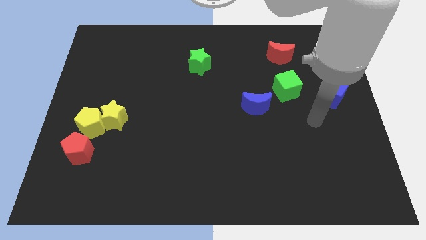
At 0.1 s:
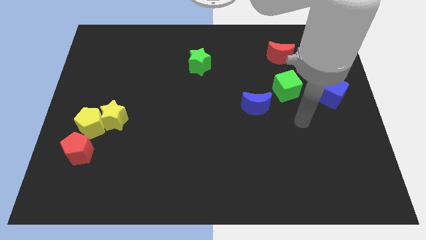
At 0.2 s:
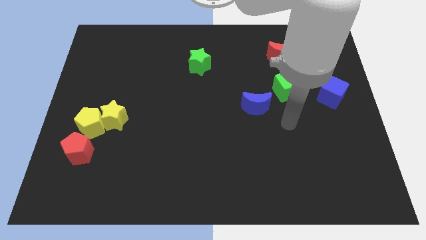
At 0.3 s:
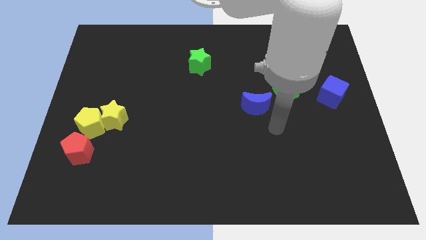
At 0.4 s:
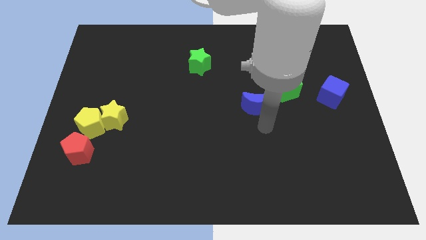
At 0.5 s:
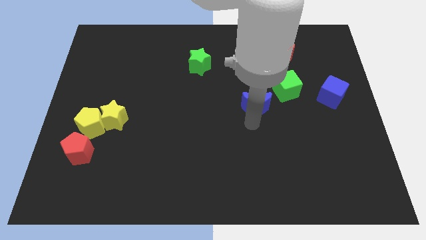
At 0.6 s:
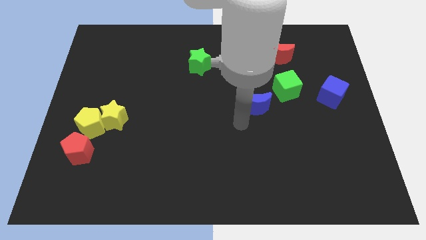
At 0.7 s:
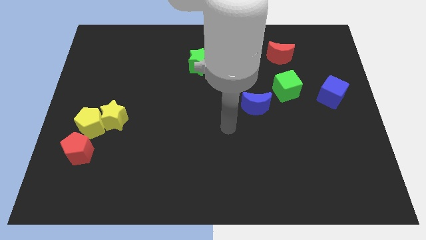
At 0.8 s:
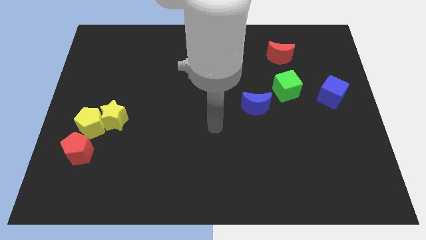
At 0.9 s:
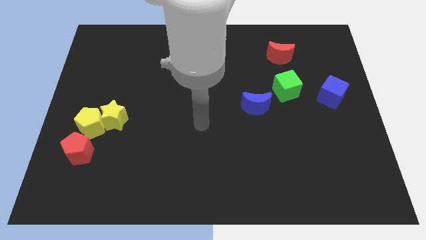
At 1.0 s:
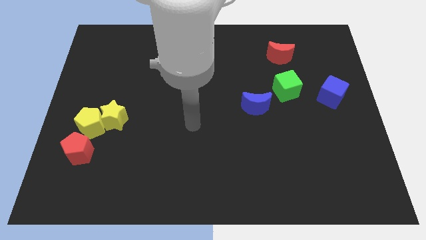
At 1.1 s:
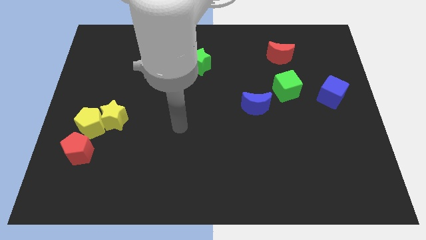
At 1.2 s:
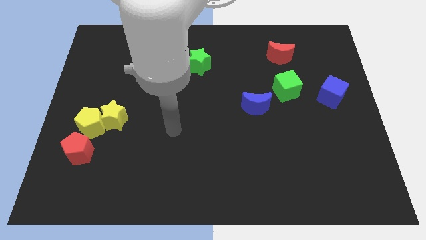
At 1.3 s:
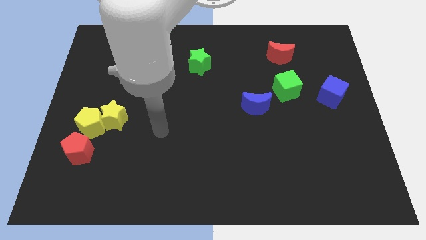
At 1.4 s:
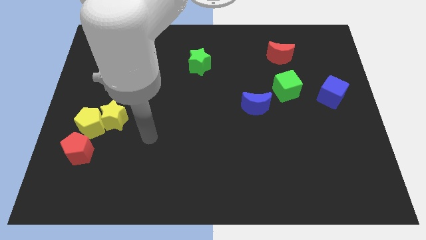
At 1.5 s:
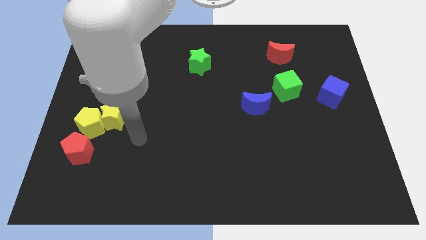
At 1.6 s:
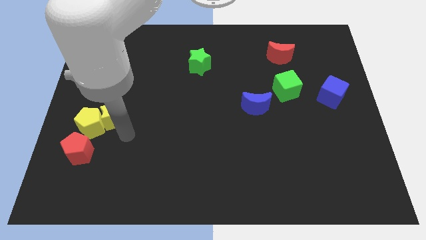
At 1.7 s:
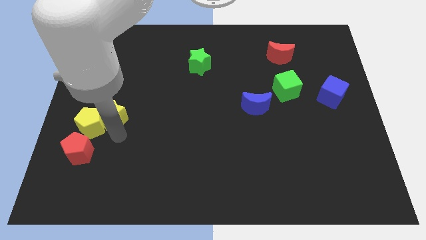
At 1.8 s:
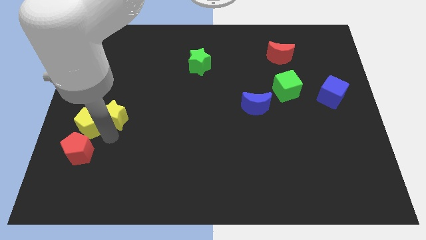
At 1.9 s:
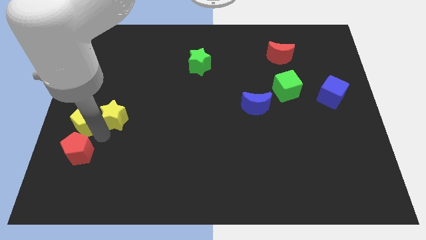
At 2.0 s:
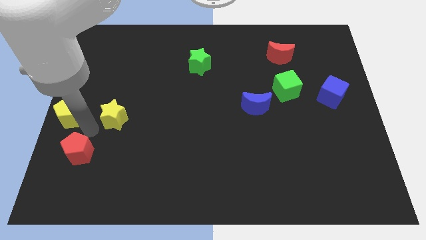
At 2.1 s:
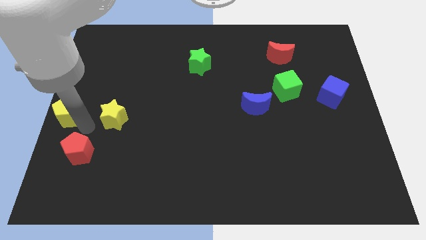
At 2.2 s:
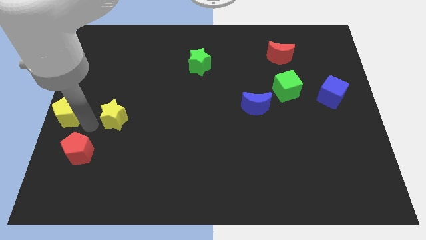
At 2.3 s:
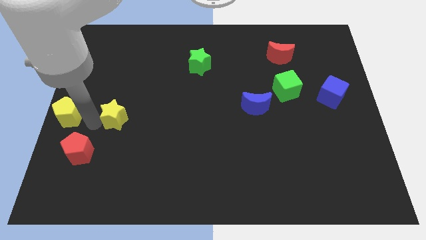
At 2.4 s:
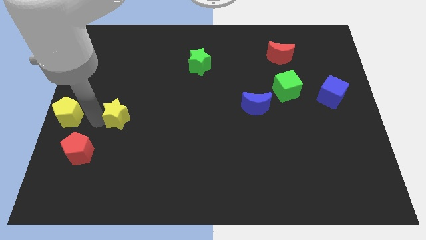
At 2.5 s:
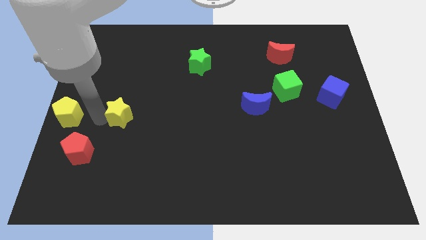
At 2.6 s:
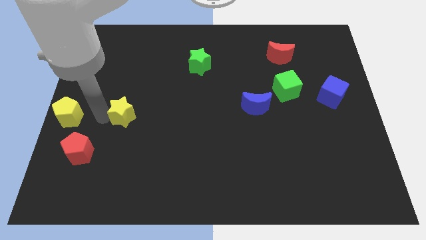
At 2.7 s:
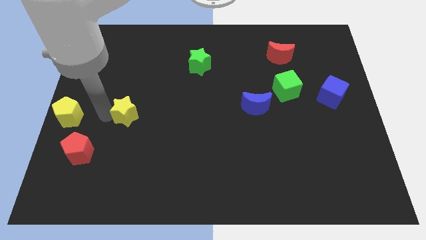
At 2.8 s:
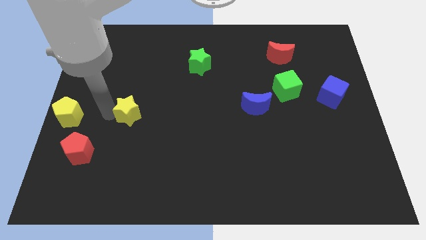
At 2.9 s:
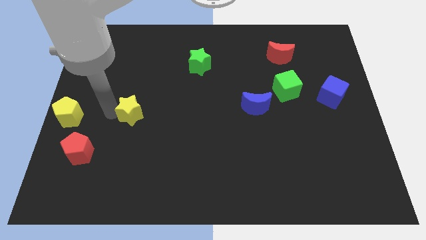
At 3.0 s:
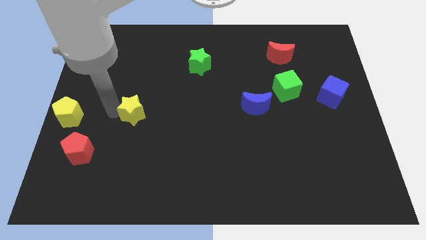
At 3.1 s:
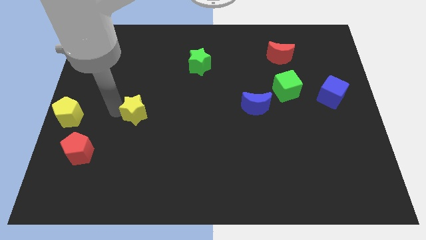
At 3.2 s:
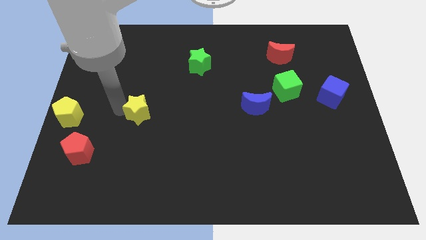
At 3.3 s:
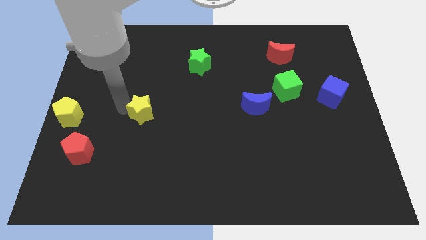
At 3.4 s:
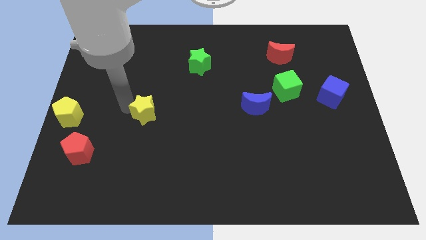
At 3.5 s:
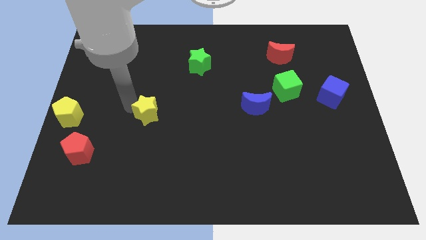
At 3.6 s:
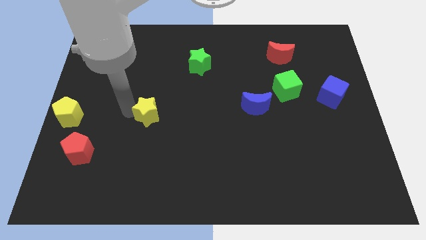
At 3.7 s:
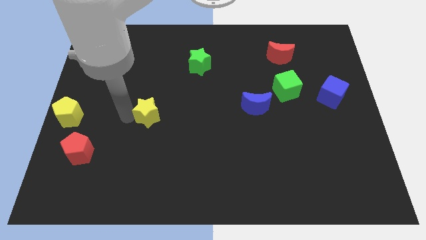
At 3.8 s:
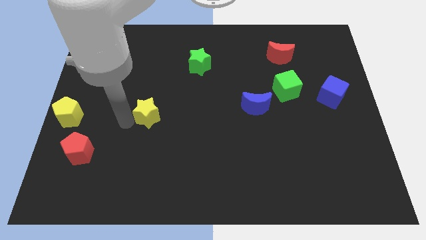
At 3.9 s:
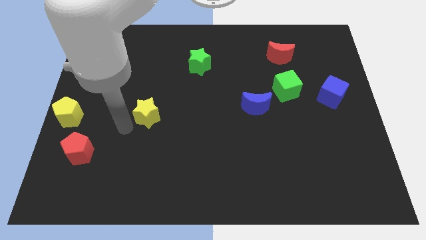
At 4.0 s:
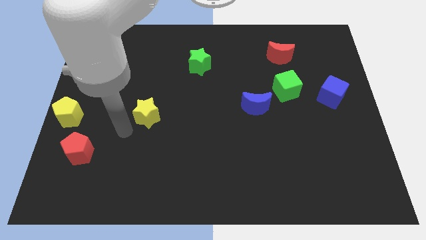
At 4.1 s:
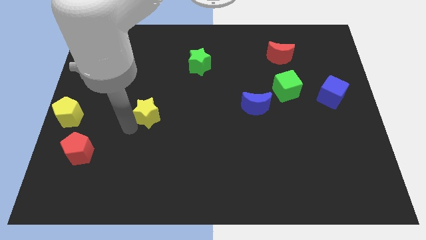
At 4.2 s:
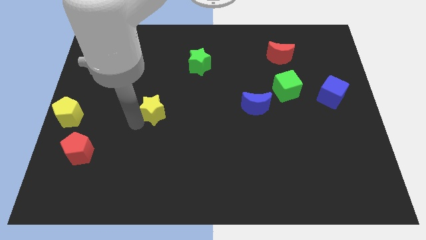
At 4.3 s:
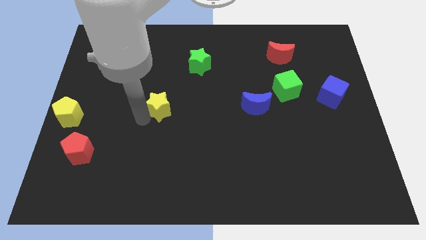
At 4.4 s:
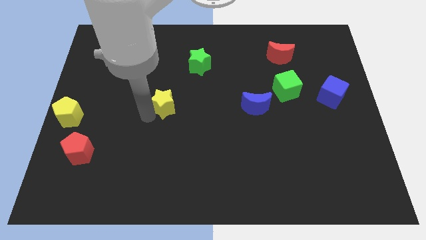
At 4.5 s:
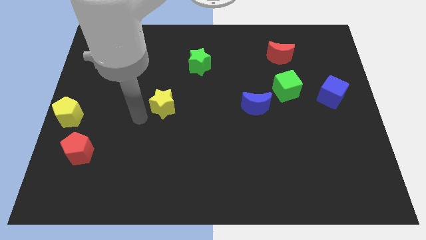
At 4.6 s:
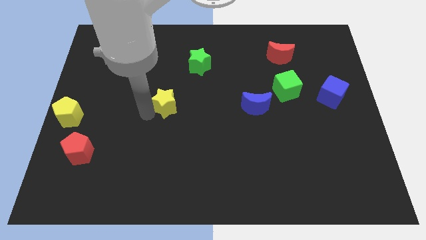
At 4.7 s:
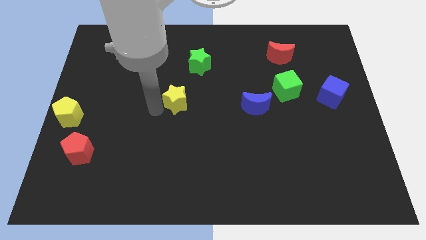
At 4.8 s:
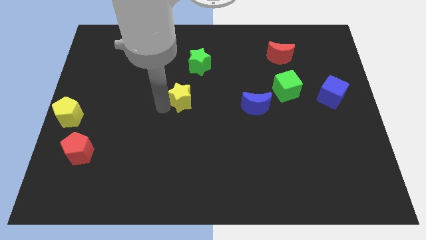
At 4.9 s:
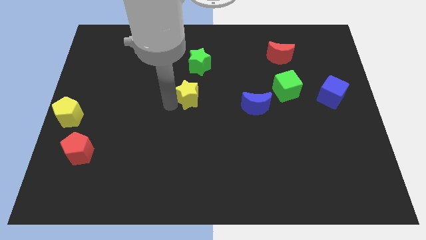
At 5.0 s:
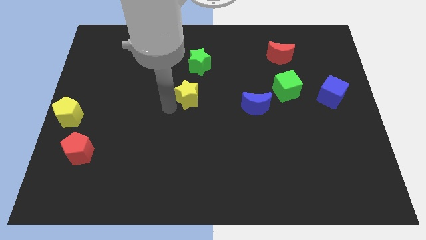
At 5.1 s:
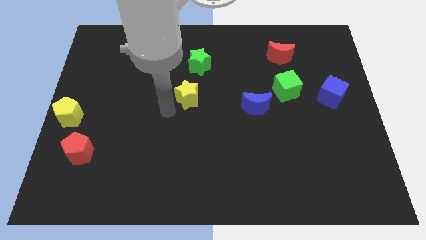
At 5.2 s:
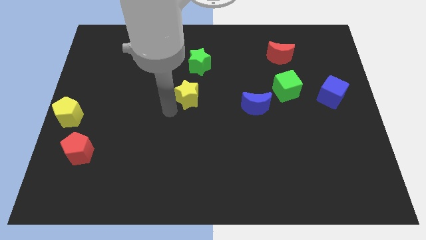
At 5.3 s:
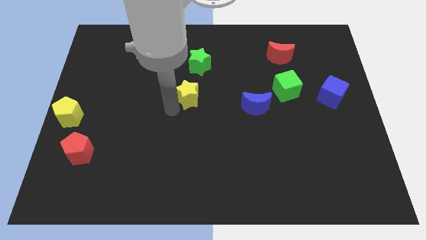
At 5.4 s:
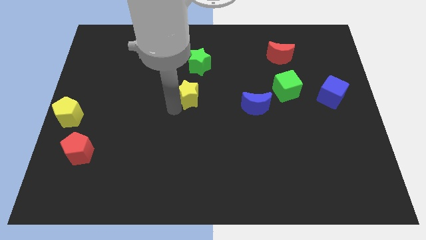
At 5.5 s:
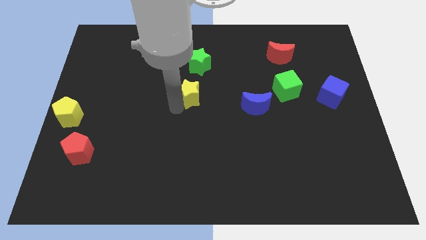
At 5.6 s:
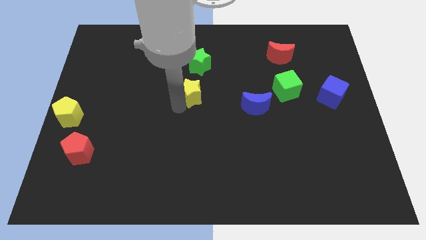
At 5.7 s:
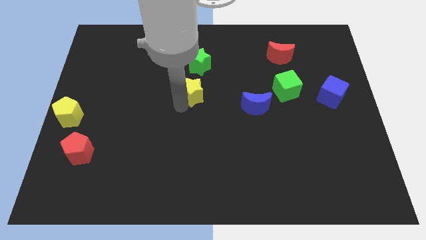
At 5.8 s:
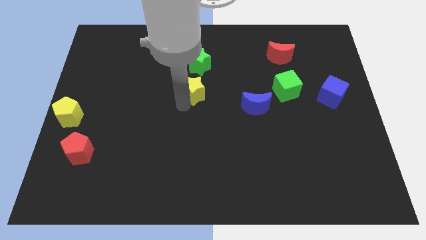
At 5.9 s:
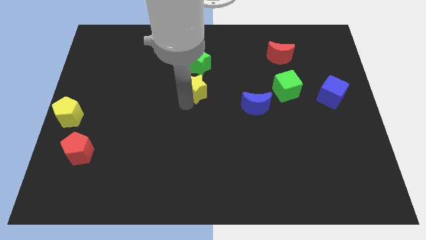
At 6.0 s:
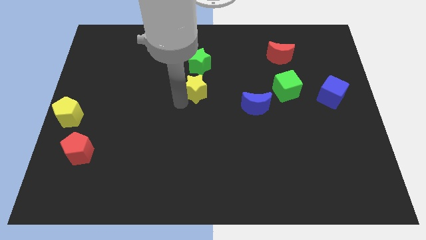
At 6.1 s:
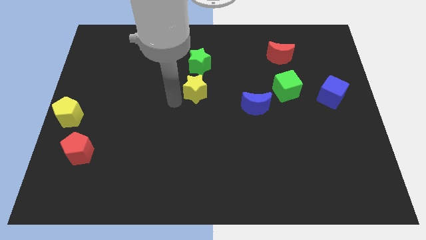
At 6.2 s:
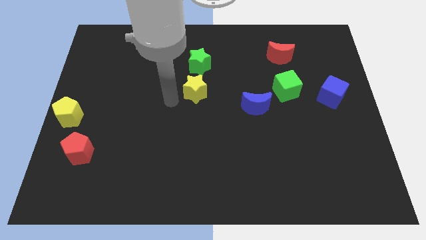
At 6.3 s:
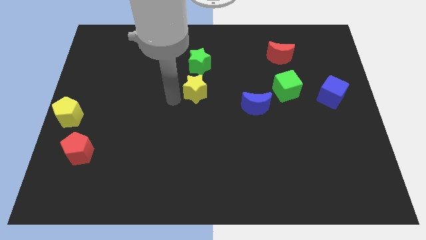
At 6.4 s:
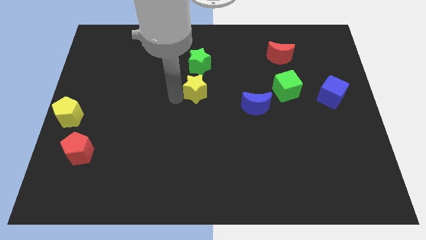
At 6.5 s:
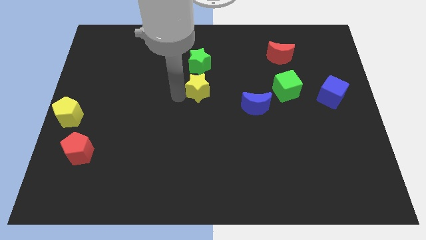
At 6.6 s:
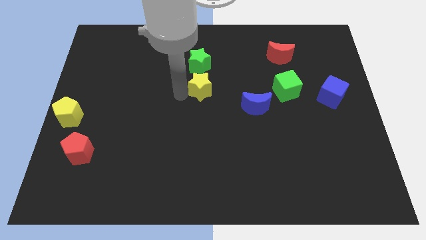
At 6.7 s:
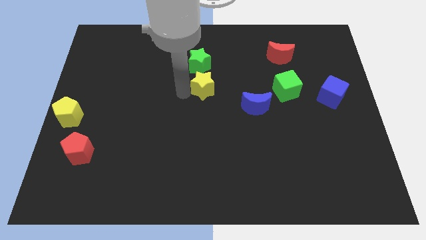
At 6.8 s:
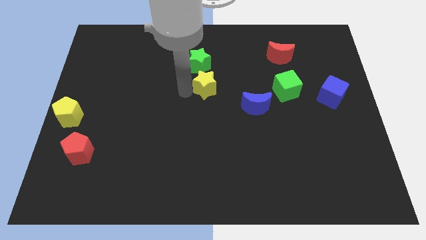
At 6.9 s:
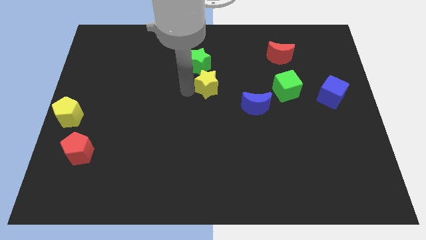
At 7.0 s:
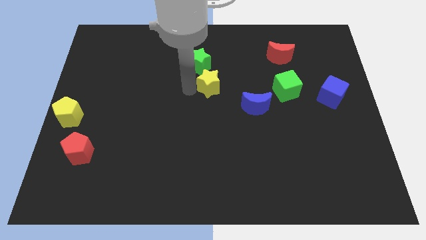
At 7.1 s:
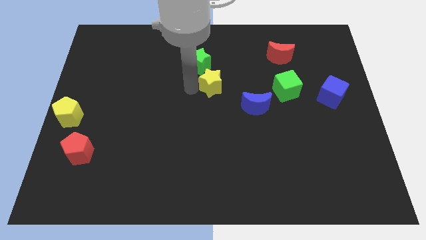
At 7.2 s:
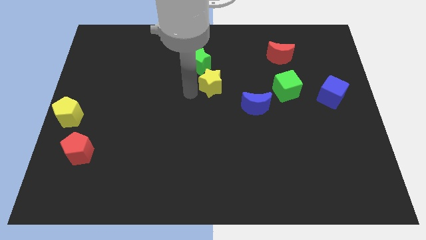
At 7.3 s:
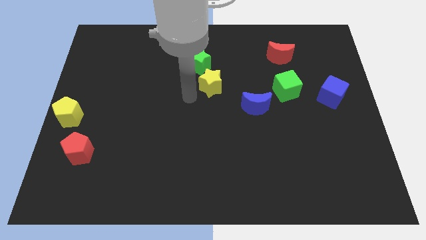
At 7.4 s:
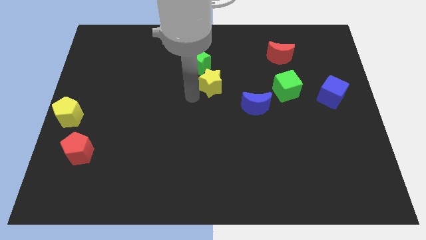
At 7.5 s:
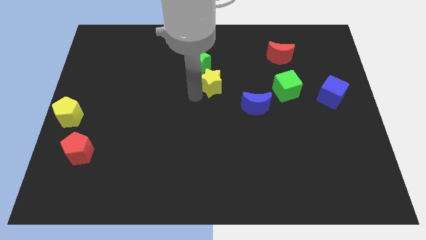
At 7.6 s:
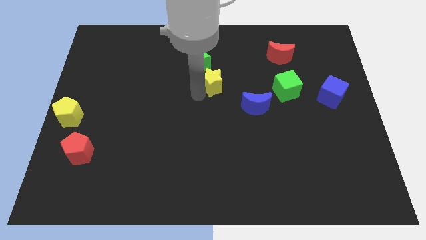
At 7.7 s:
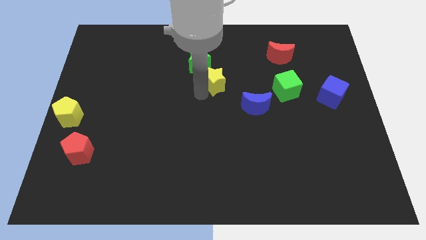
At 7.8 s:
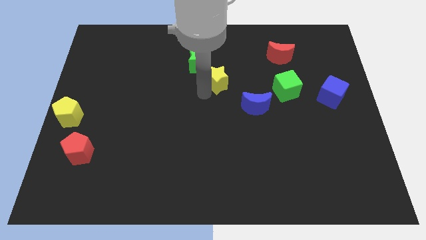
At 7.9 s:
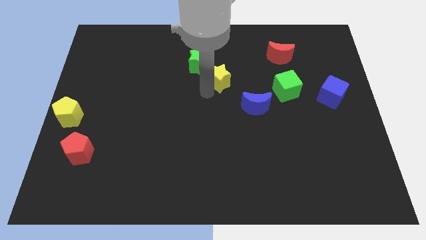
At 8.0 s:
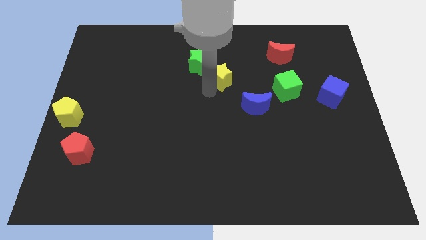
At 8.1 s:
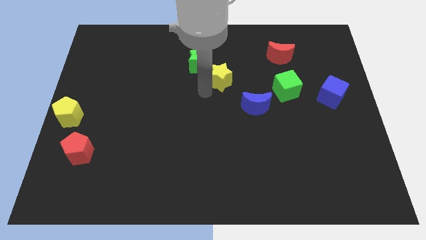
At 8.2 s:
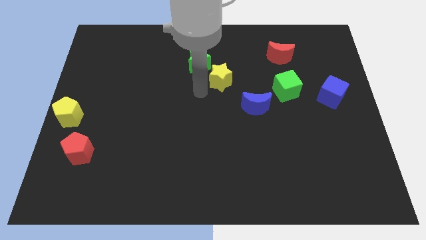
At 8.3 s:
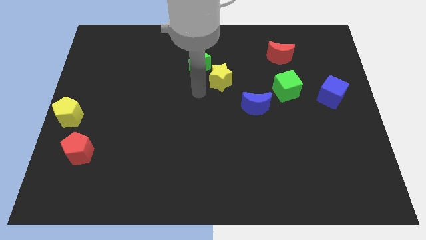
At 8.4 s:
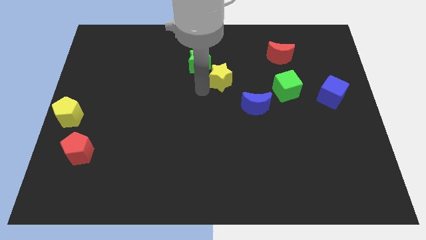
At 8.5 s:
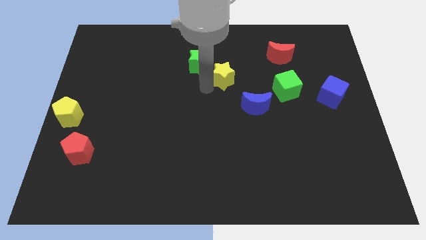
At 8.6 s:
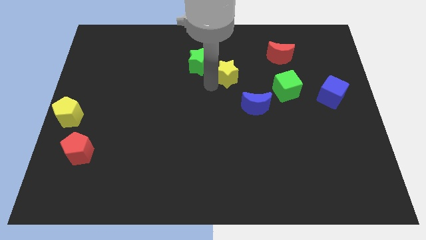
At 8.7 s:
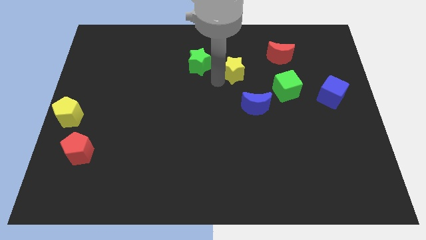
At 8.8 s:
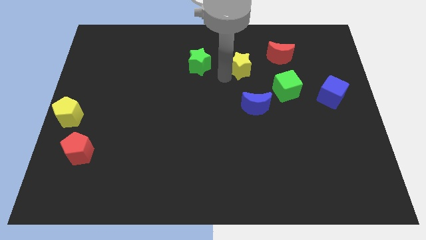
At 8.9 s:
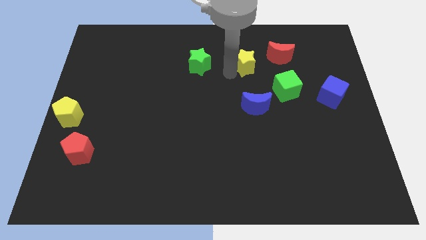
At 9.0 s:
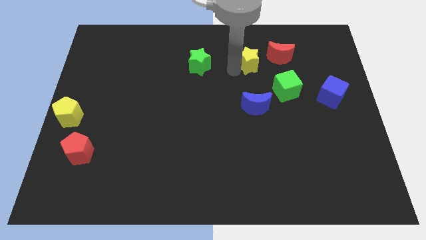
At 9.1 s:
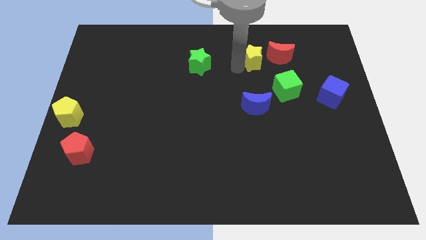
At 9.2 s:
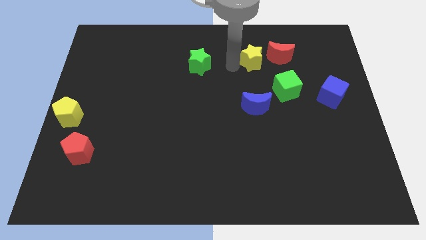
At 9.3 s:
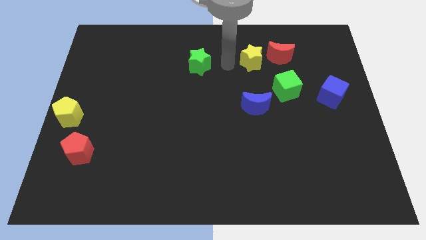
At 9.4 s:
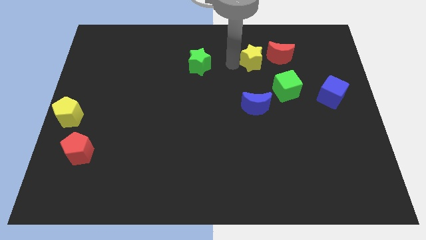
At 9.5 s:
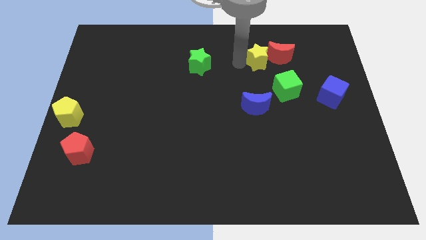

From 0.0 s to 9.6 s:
put the yellow star close to the red moon
